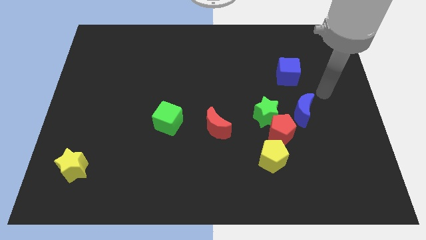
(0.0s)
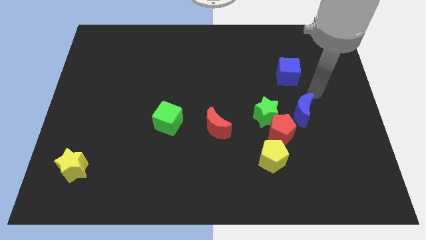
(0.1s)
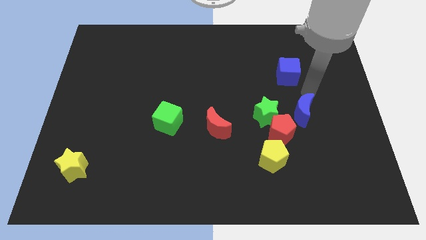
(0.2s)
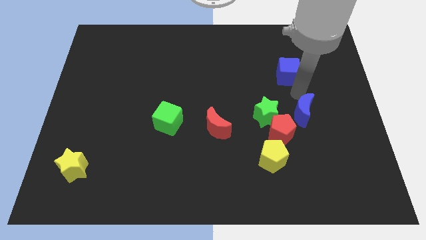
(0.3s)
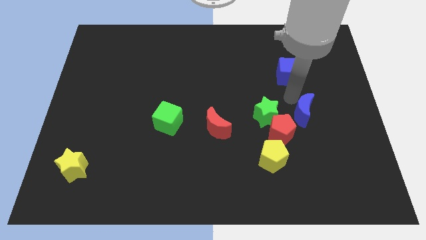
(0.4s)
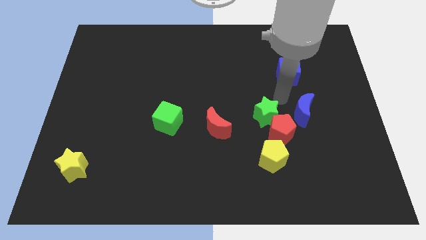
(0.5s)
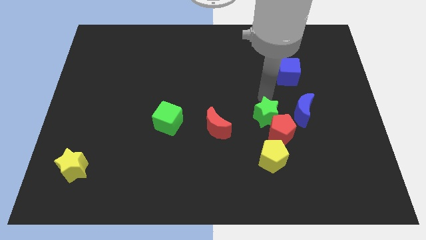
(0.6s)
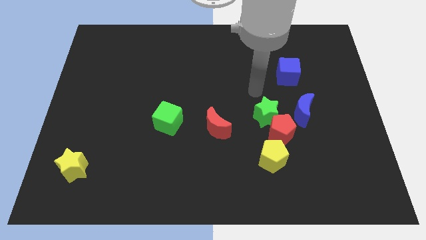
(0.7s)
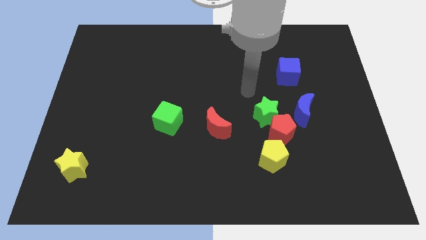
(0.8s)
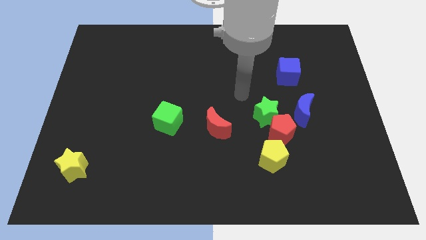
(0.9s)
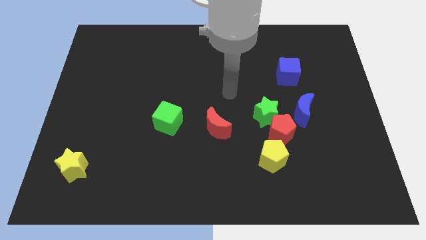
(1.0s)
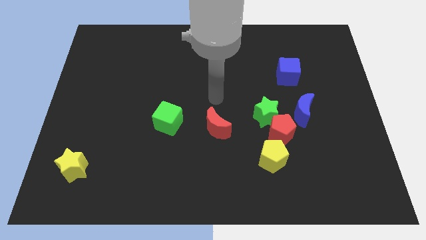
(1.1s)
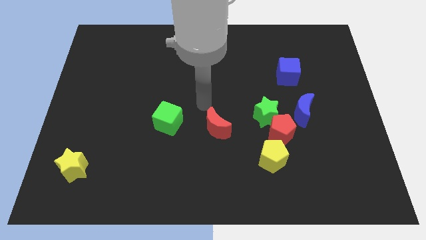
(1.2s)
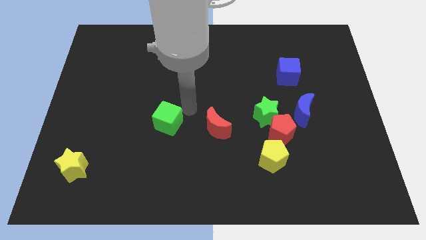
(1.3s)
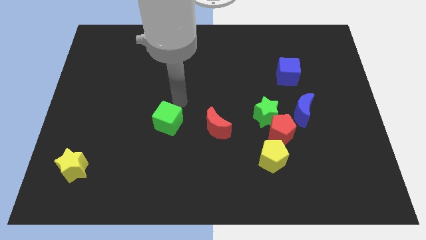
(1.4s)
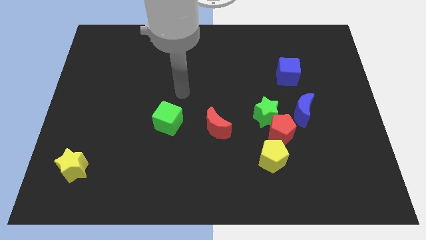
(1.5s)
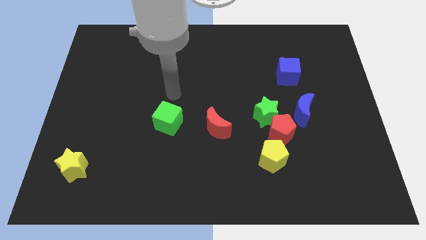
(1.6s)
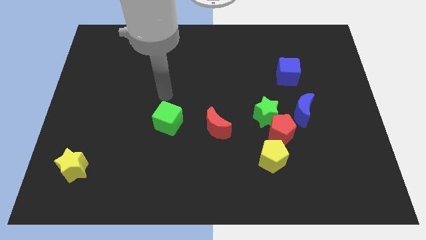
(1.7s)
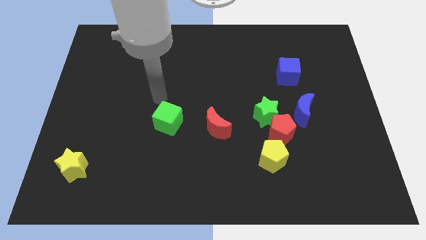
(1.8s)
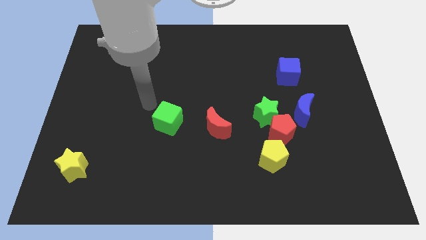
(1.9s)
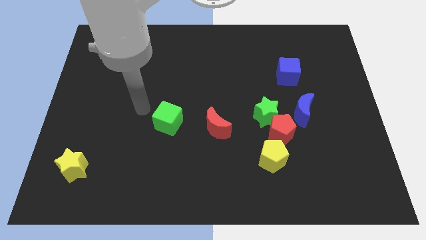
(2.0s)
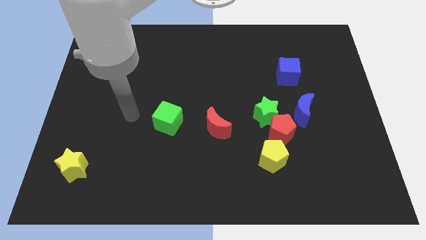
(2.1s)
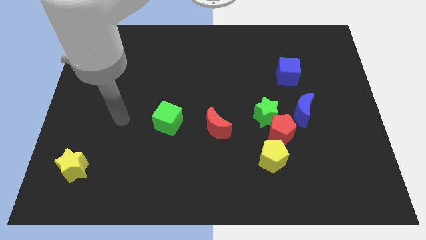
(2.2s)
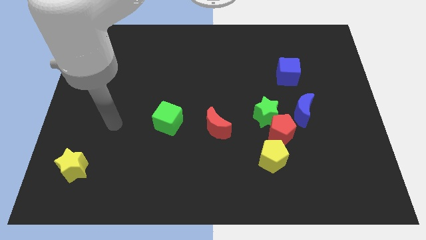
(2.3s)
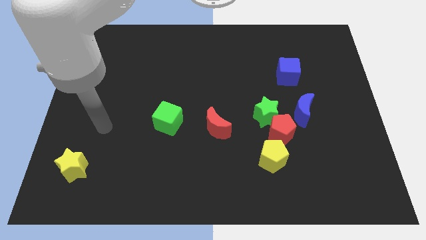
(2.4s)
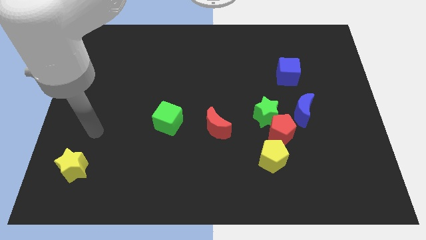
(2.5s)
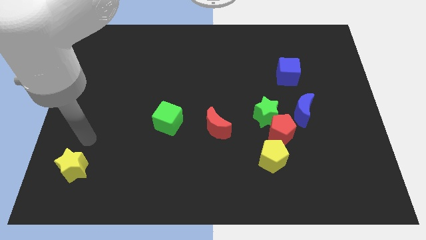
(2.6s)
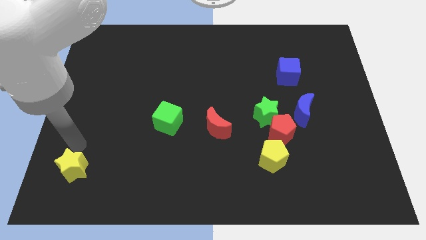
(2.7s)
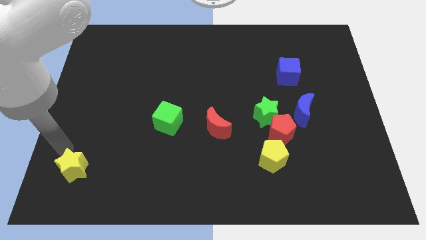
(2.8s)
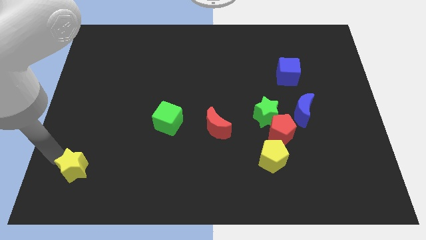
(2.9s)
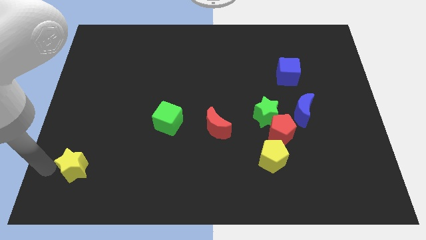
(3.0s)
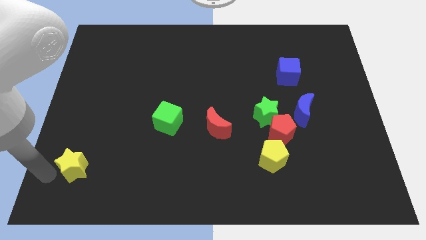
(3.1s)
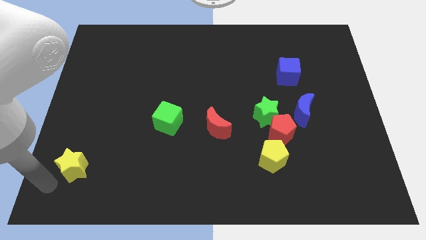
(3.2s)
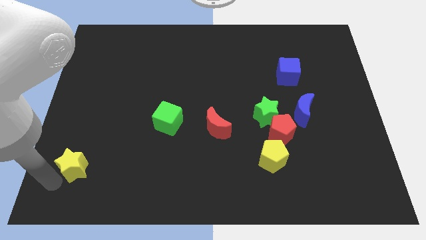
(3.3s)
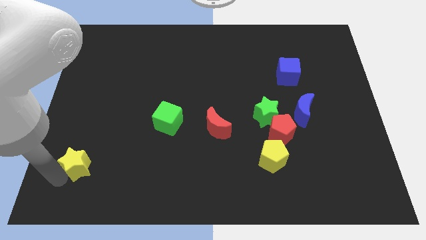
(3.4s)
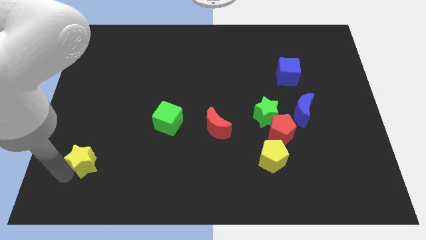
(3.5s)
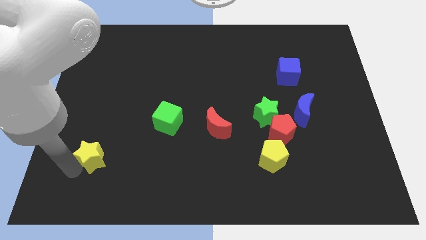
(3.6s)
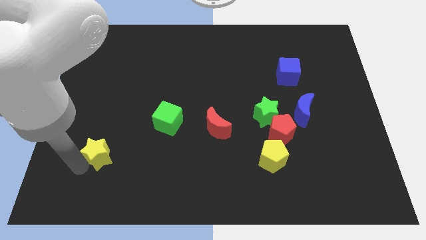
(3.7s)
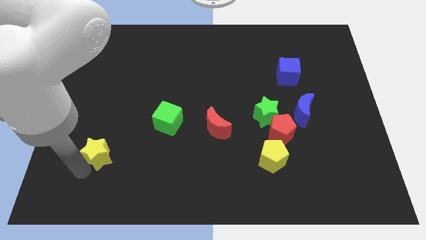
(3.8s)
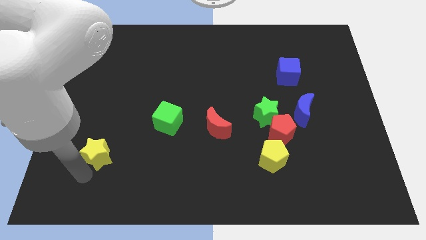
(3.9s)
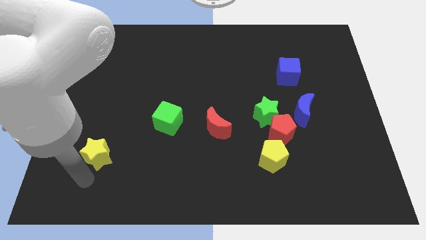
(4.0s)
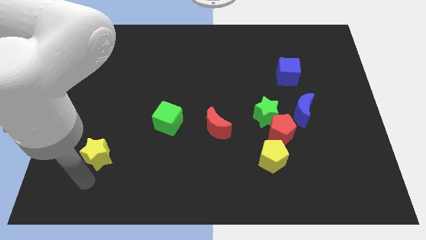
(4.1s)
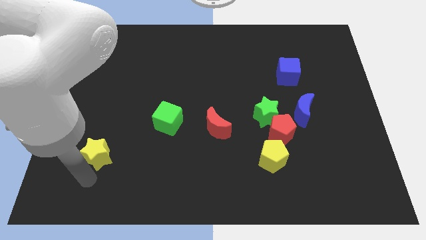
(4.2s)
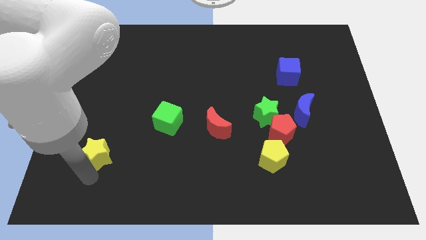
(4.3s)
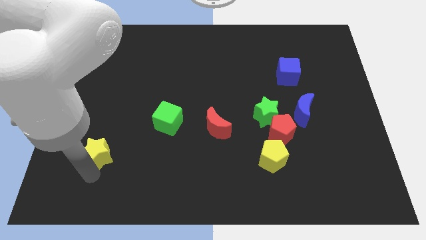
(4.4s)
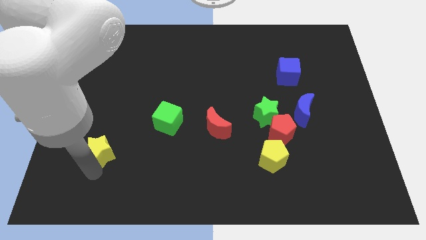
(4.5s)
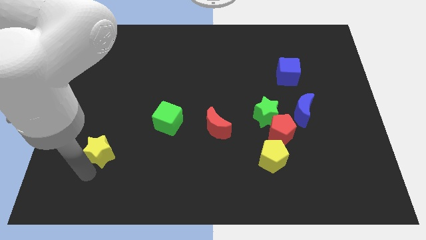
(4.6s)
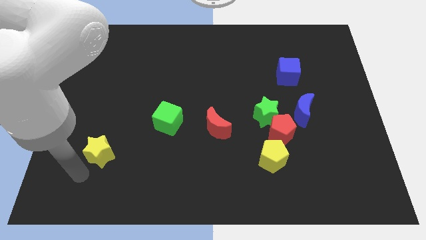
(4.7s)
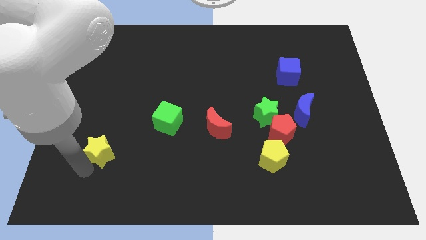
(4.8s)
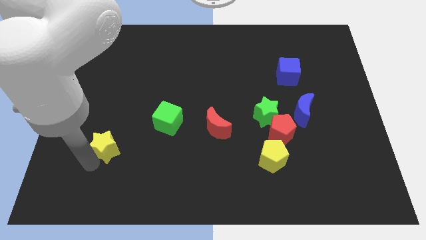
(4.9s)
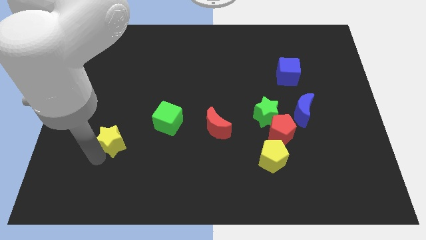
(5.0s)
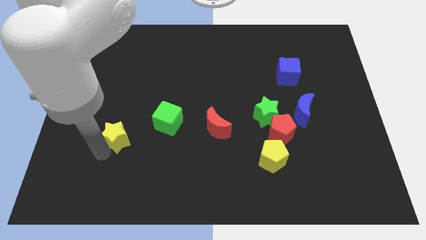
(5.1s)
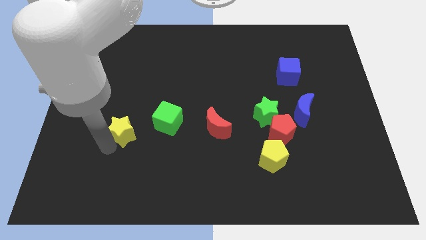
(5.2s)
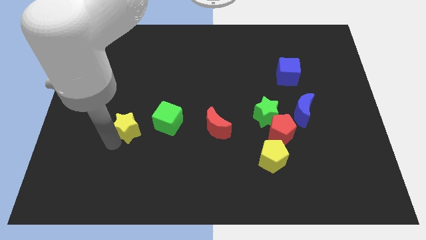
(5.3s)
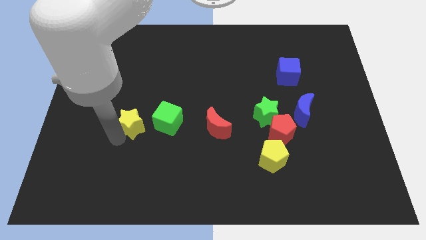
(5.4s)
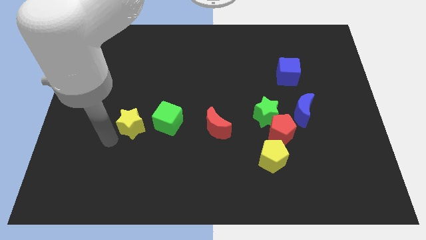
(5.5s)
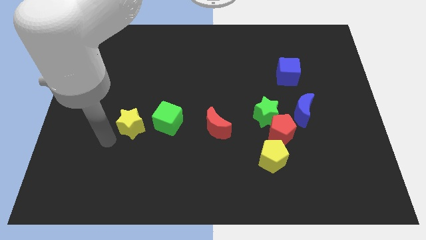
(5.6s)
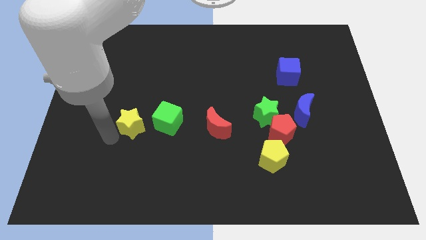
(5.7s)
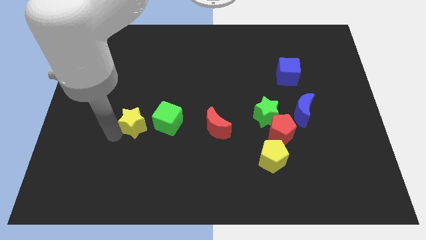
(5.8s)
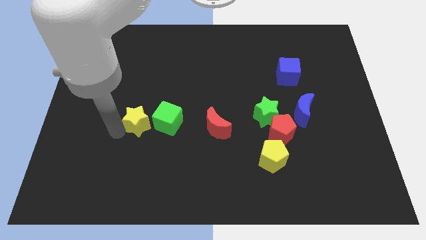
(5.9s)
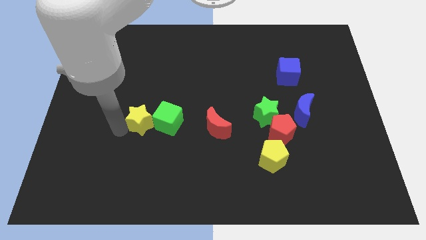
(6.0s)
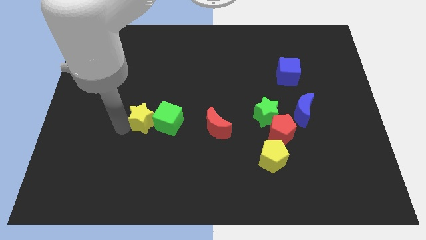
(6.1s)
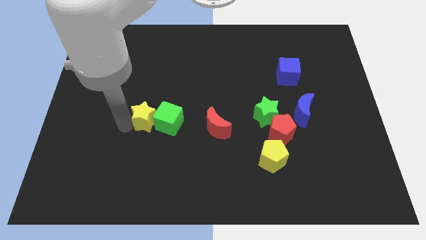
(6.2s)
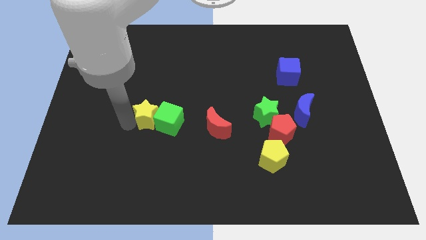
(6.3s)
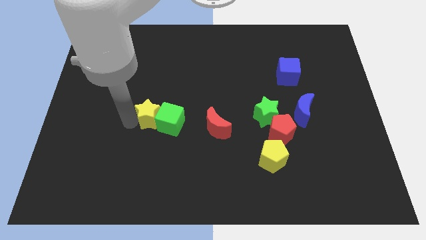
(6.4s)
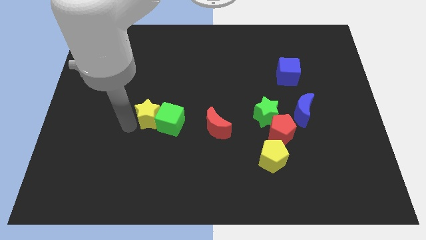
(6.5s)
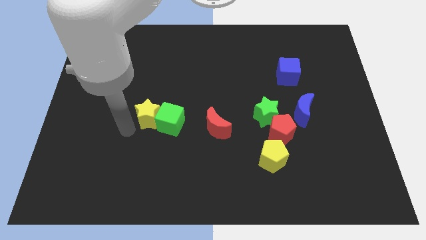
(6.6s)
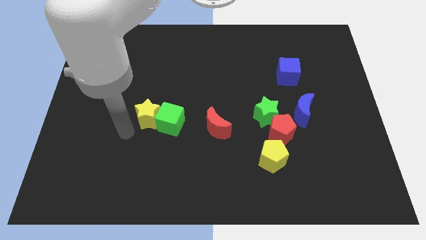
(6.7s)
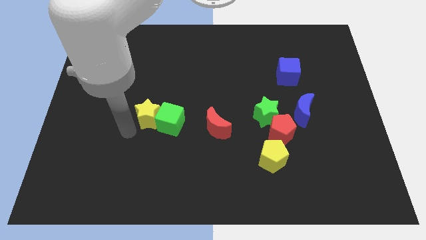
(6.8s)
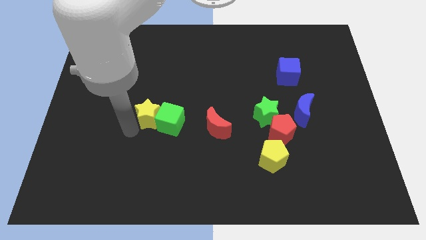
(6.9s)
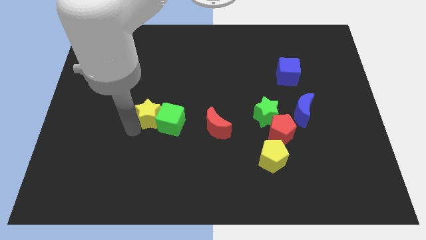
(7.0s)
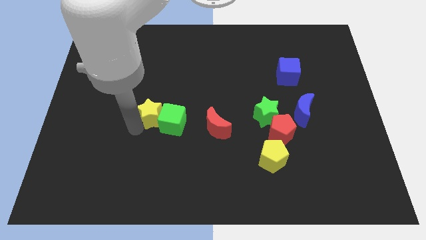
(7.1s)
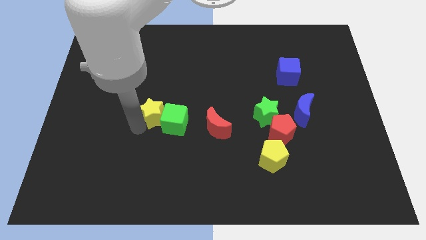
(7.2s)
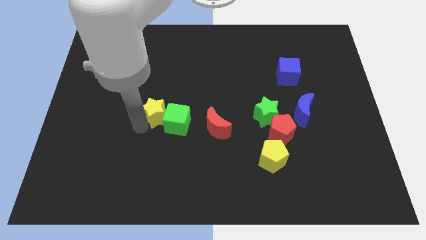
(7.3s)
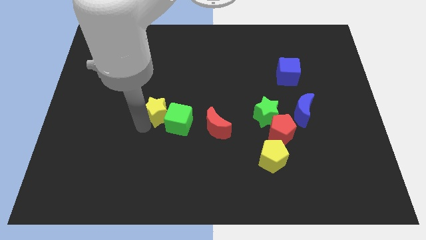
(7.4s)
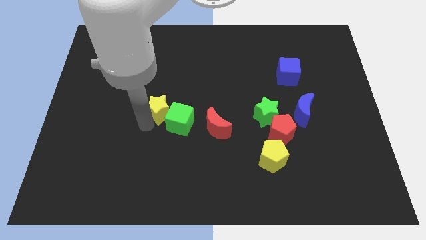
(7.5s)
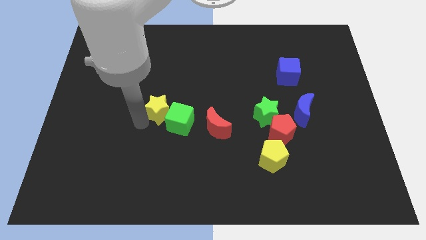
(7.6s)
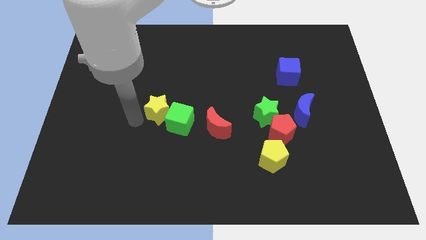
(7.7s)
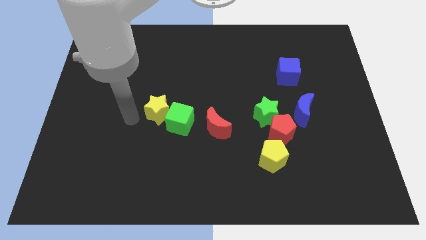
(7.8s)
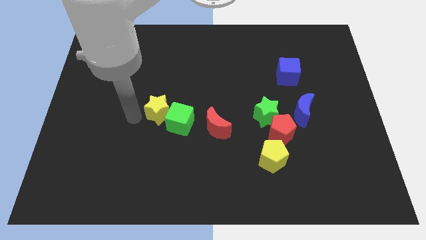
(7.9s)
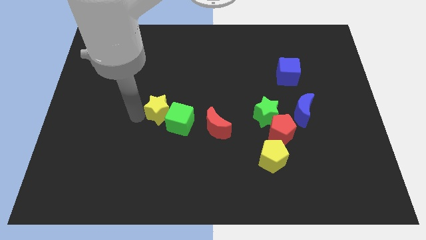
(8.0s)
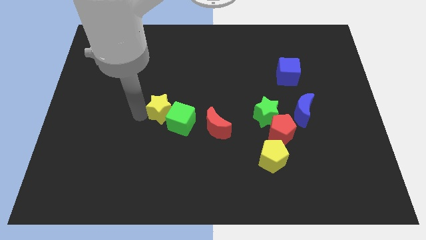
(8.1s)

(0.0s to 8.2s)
put the yellow star to the middle of the board

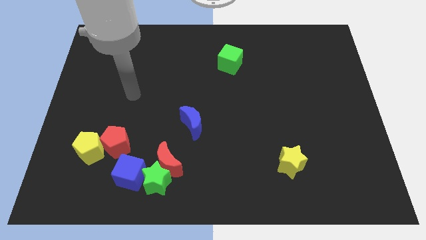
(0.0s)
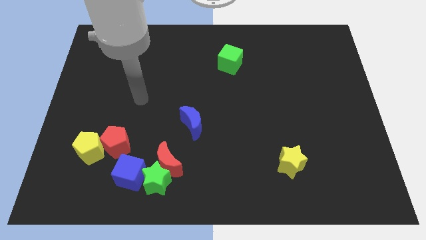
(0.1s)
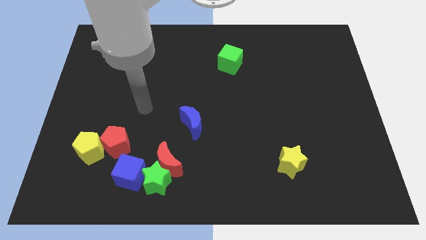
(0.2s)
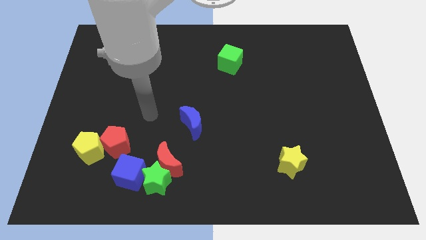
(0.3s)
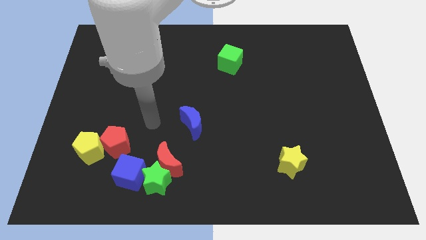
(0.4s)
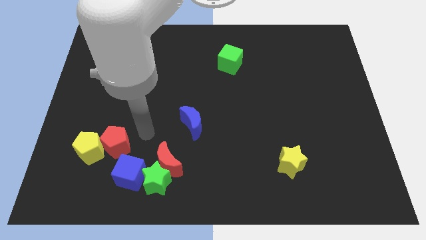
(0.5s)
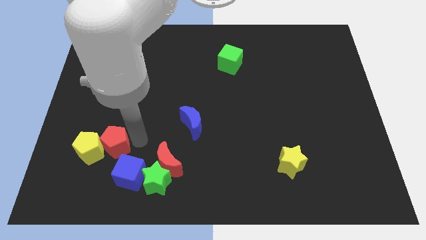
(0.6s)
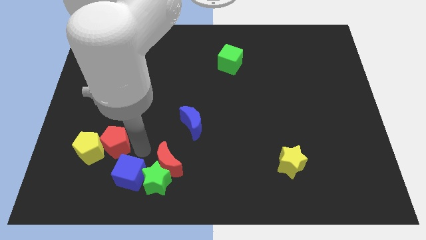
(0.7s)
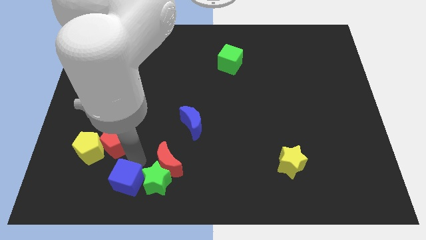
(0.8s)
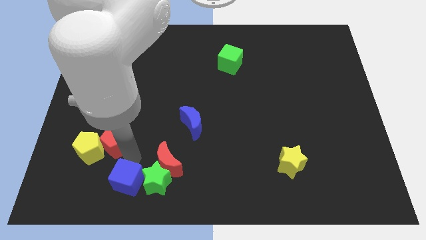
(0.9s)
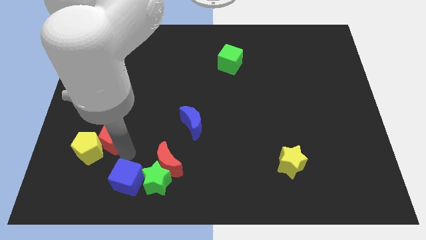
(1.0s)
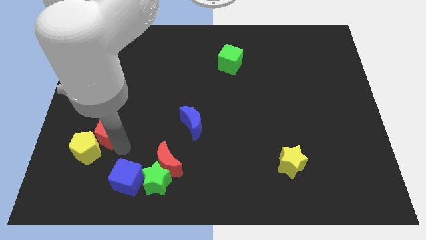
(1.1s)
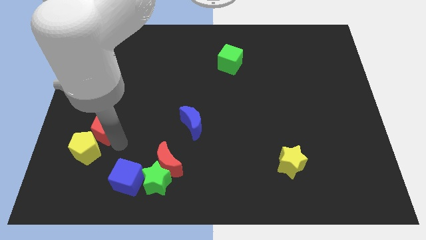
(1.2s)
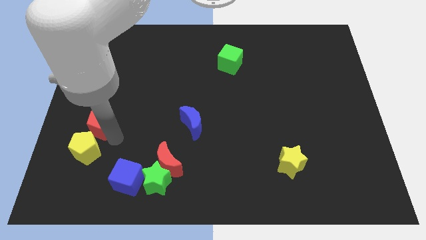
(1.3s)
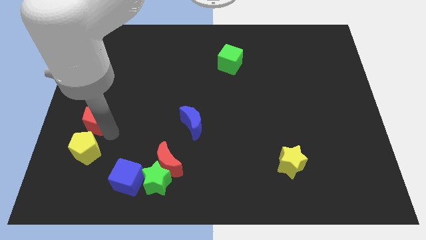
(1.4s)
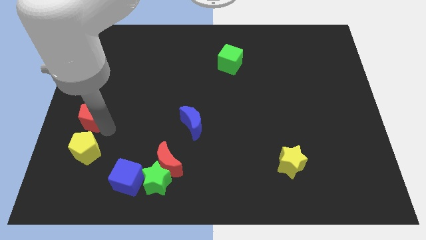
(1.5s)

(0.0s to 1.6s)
slide the red pentagon to the left side
